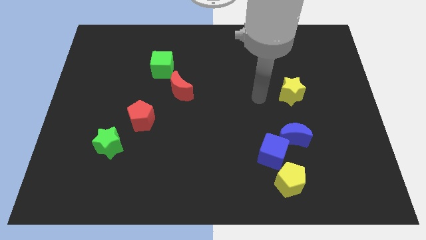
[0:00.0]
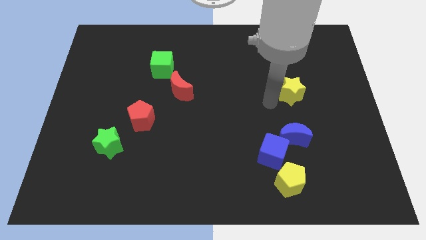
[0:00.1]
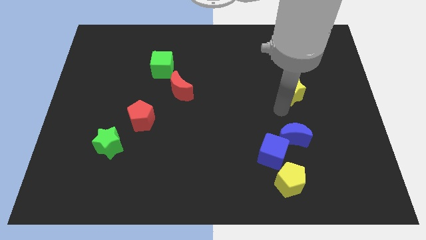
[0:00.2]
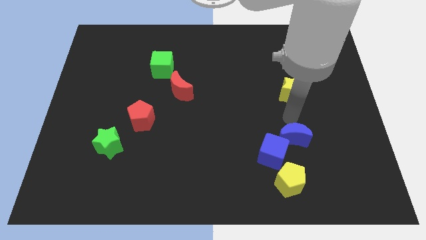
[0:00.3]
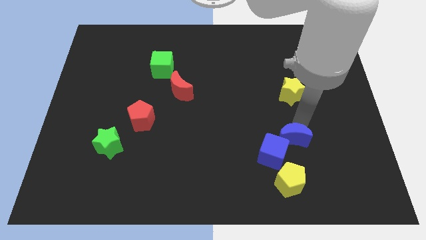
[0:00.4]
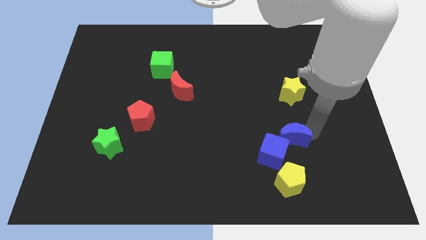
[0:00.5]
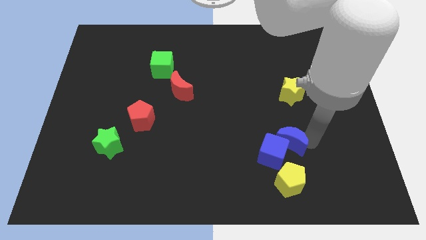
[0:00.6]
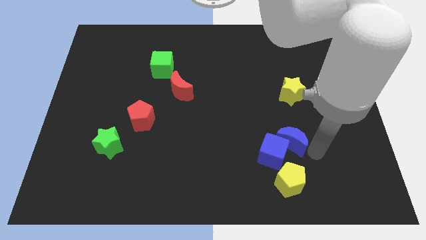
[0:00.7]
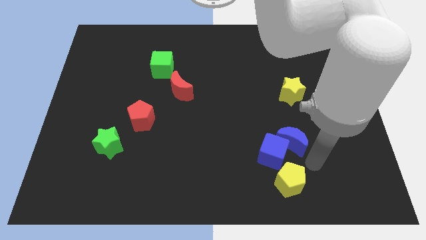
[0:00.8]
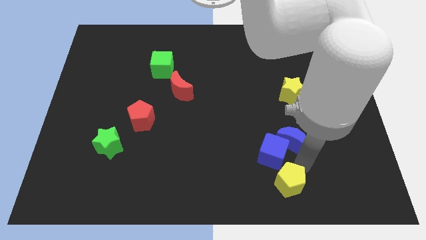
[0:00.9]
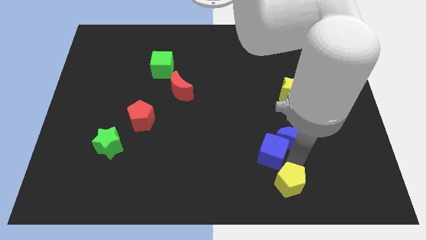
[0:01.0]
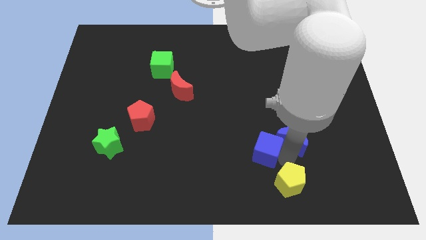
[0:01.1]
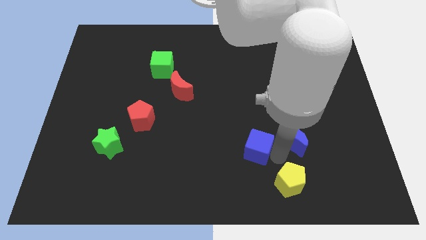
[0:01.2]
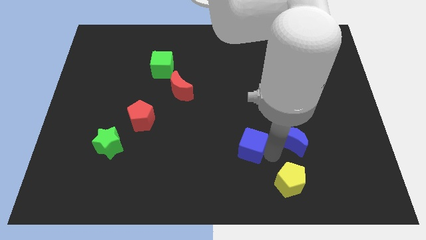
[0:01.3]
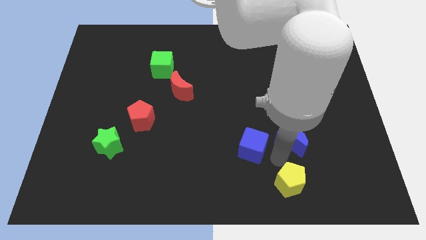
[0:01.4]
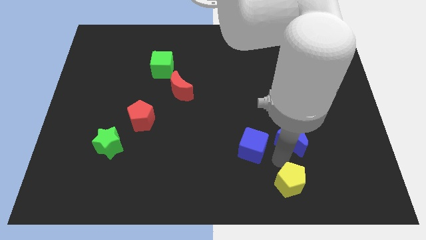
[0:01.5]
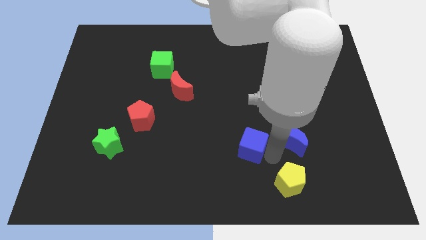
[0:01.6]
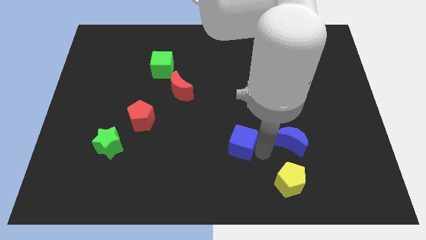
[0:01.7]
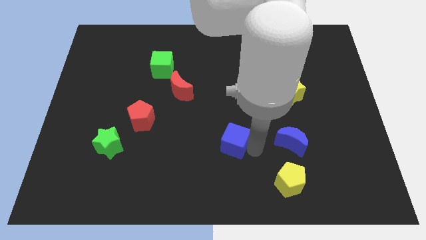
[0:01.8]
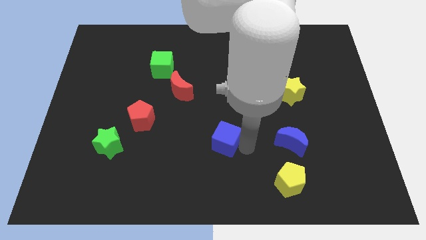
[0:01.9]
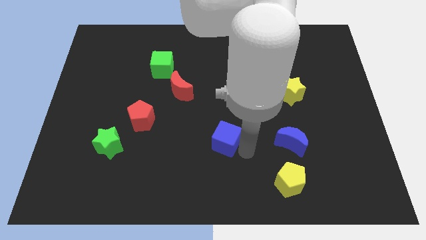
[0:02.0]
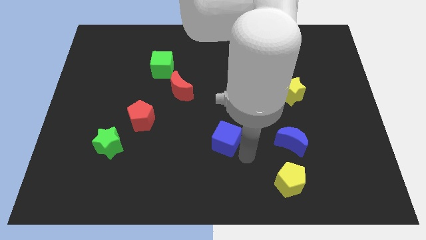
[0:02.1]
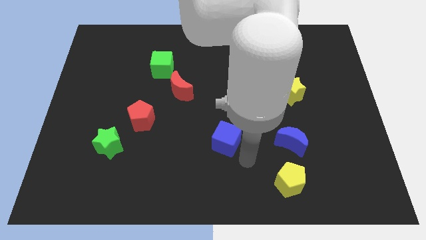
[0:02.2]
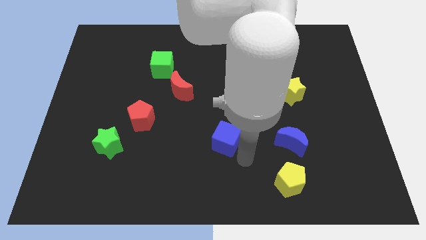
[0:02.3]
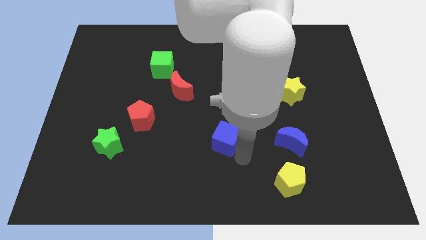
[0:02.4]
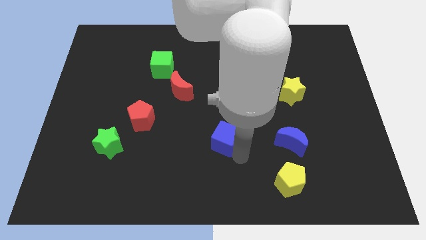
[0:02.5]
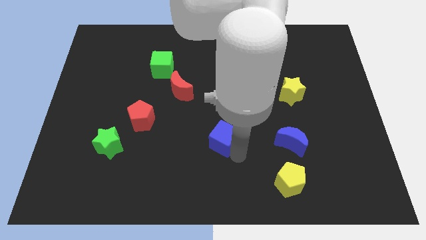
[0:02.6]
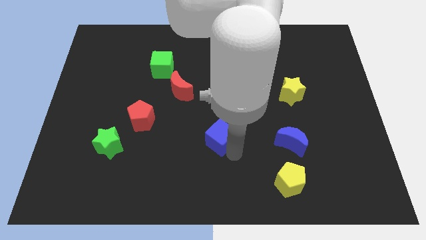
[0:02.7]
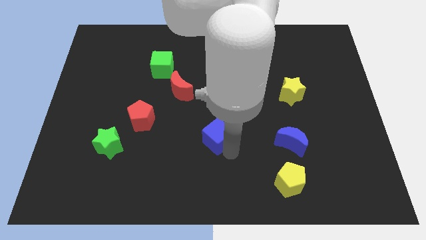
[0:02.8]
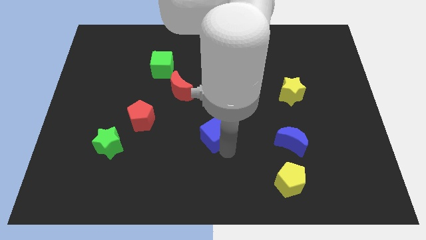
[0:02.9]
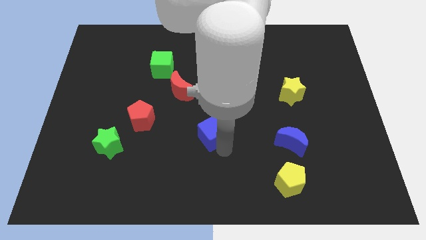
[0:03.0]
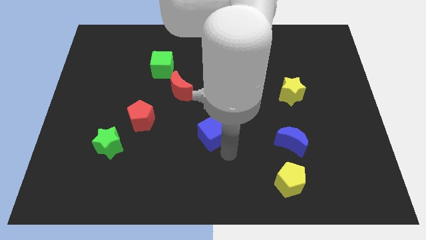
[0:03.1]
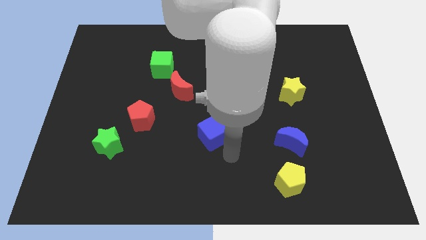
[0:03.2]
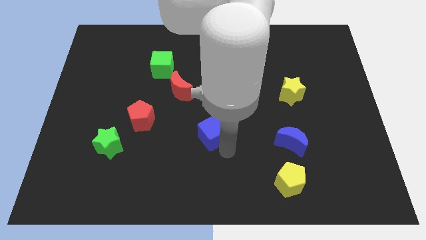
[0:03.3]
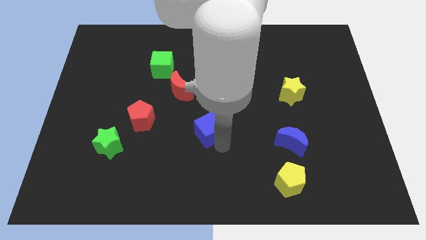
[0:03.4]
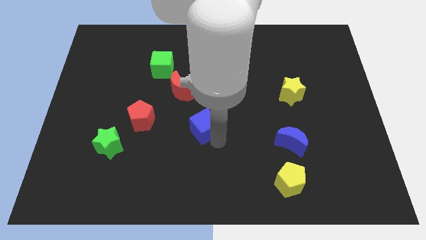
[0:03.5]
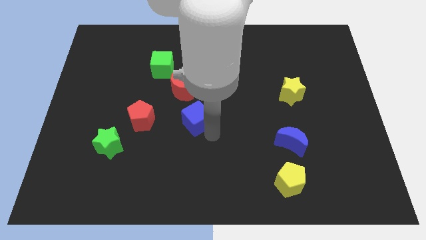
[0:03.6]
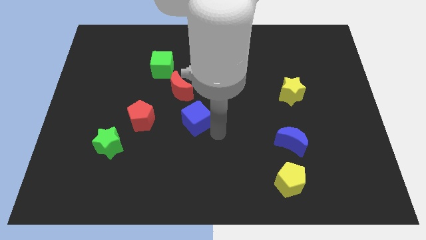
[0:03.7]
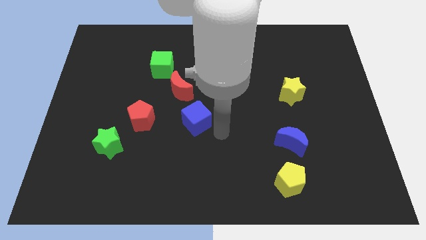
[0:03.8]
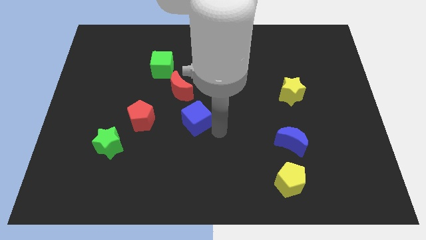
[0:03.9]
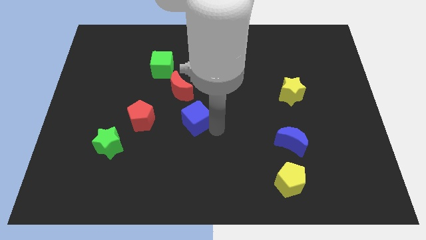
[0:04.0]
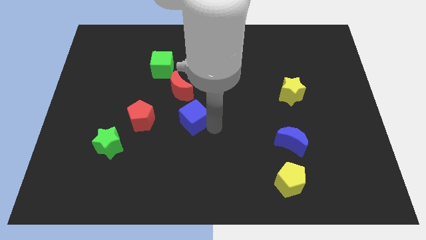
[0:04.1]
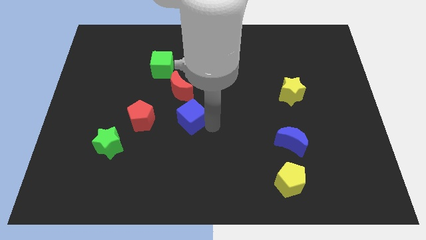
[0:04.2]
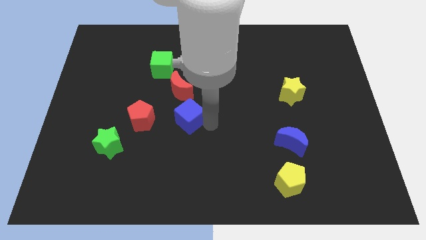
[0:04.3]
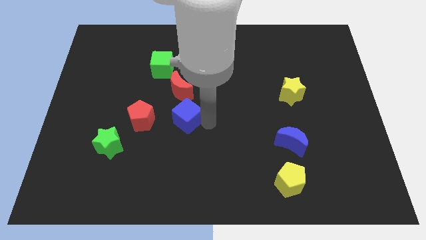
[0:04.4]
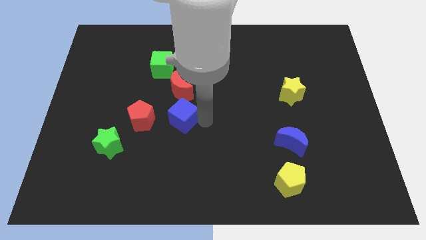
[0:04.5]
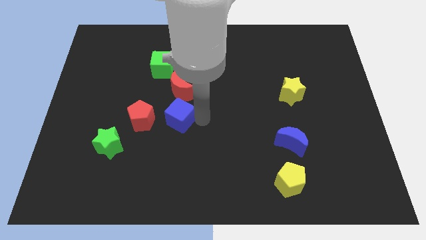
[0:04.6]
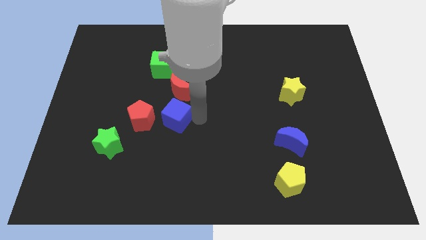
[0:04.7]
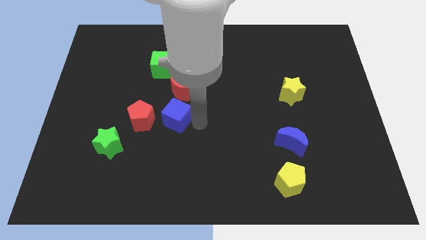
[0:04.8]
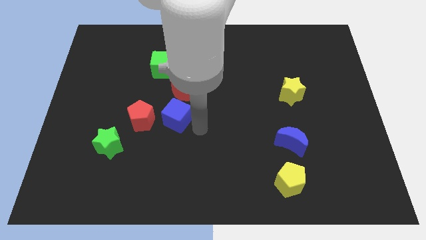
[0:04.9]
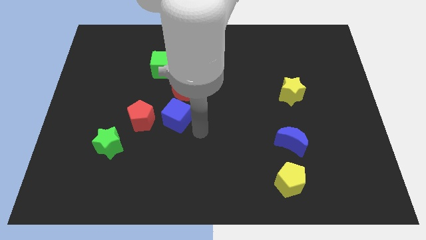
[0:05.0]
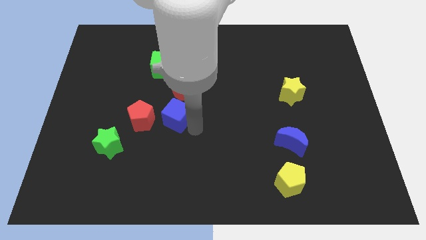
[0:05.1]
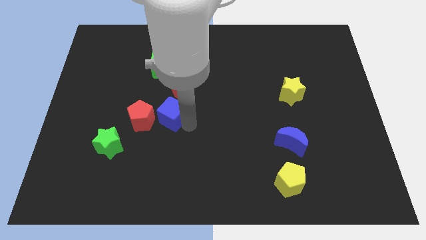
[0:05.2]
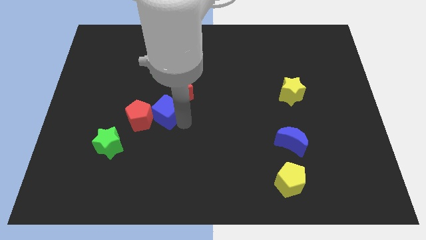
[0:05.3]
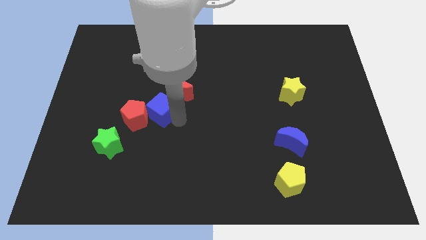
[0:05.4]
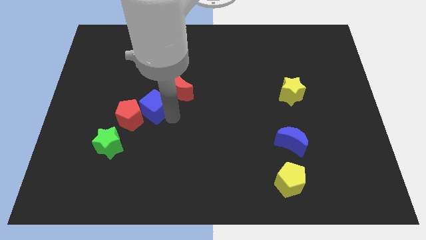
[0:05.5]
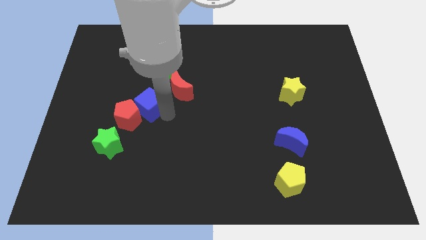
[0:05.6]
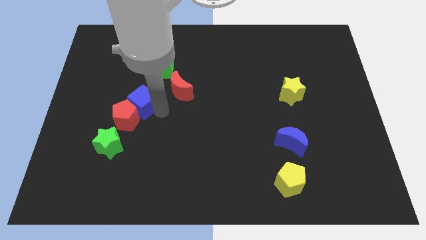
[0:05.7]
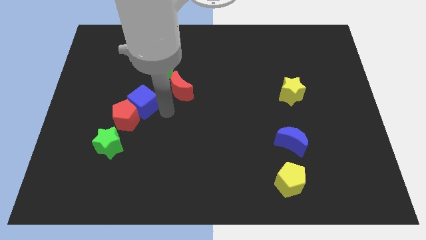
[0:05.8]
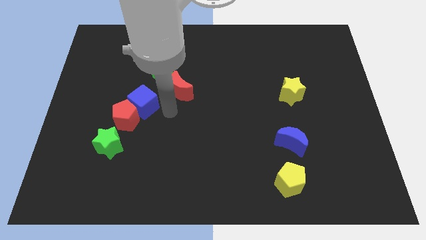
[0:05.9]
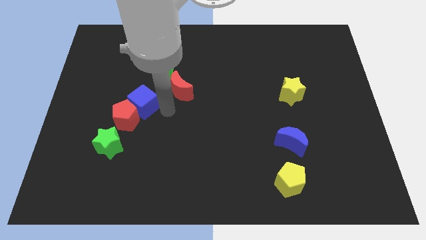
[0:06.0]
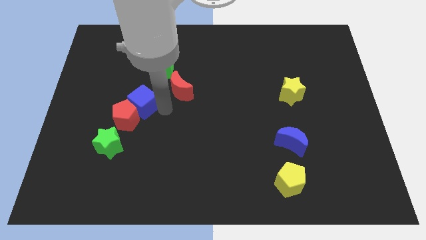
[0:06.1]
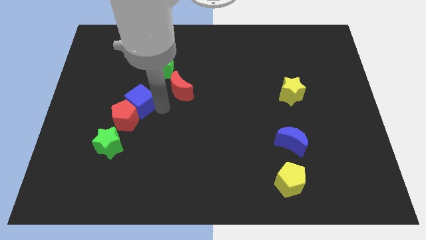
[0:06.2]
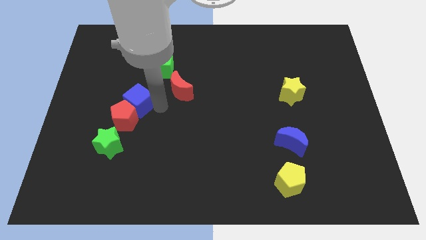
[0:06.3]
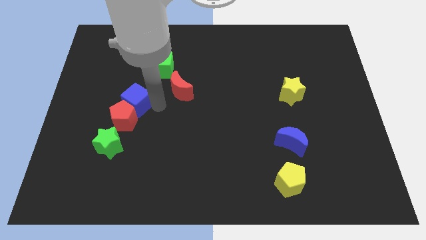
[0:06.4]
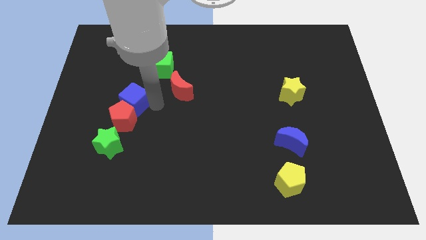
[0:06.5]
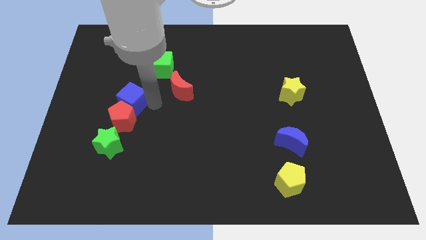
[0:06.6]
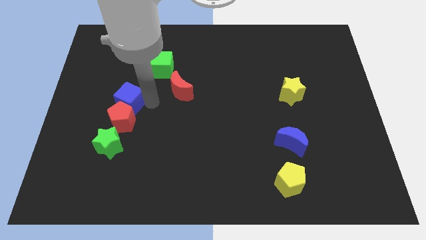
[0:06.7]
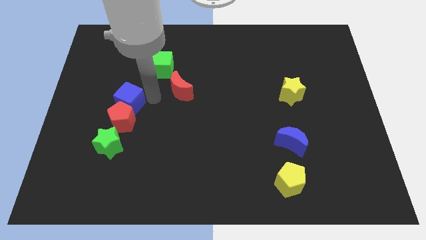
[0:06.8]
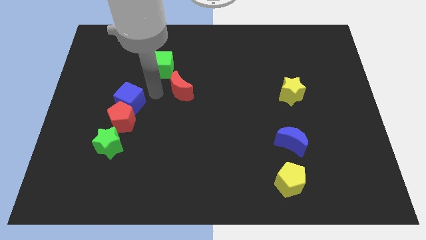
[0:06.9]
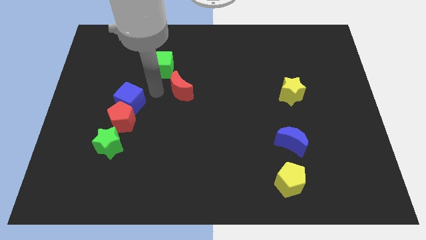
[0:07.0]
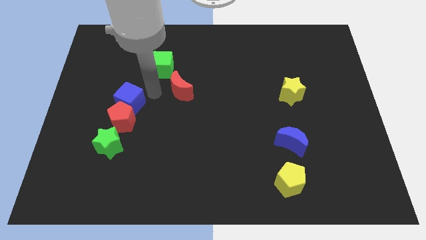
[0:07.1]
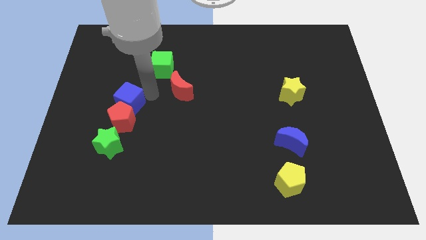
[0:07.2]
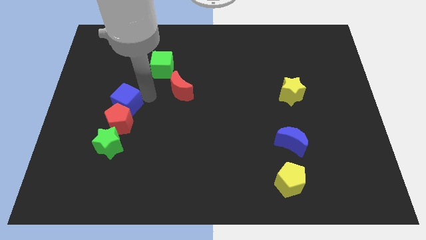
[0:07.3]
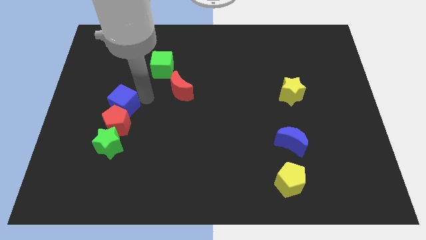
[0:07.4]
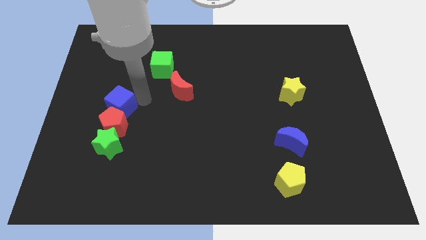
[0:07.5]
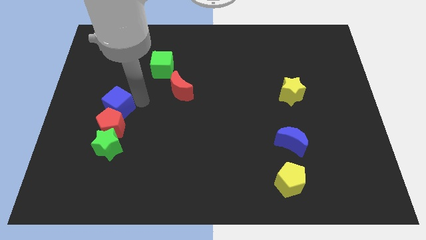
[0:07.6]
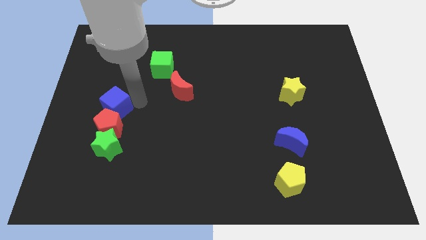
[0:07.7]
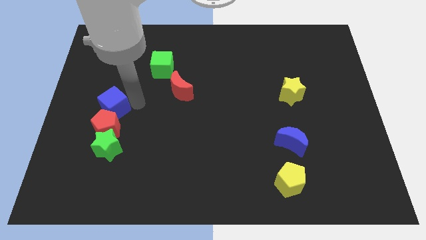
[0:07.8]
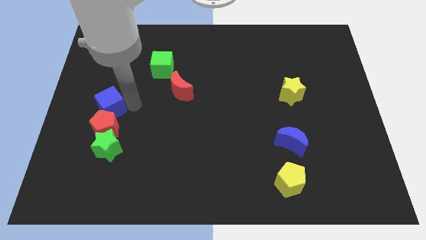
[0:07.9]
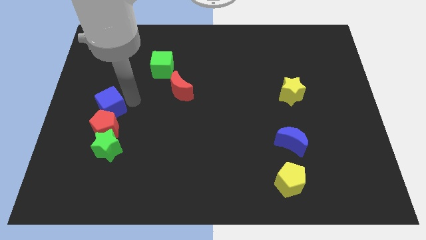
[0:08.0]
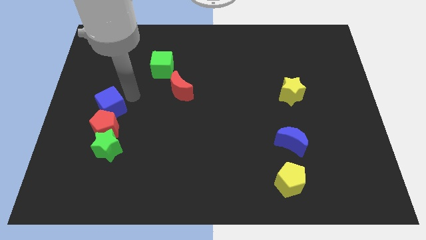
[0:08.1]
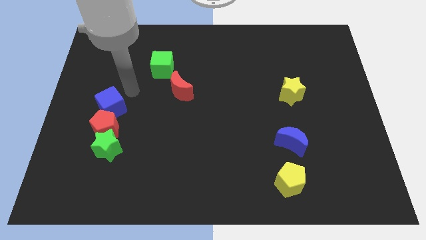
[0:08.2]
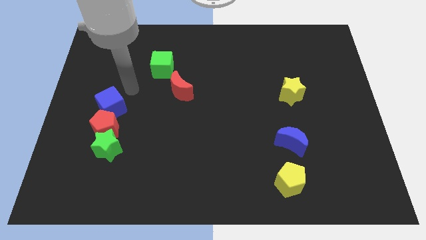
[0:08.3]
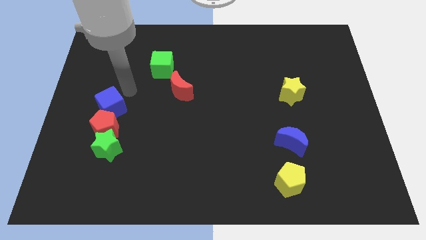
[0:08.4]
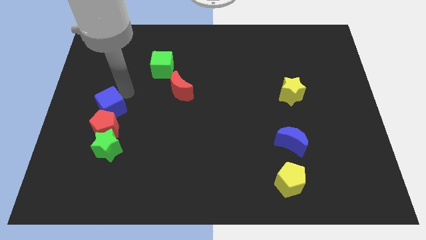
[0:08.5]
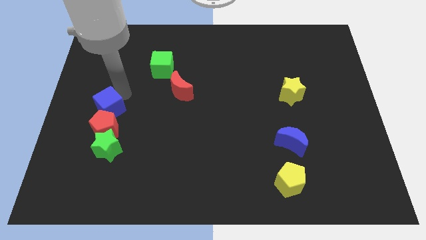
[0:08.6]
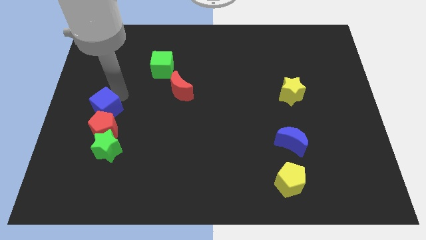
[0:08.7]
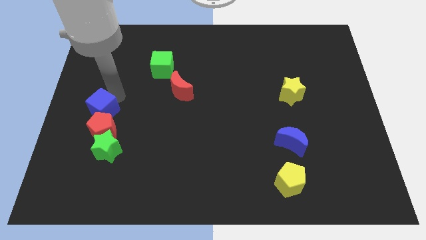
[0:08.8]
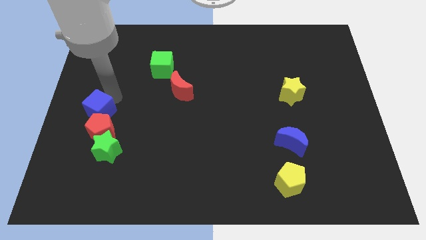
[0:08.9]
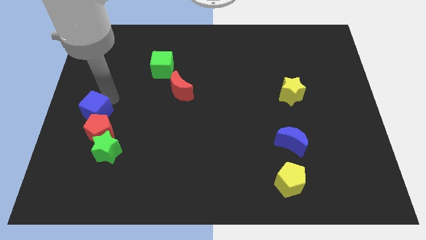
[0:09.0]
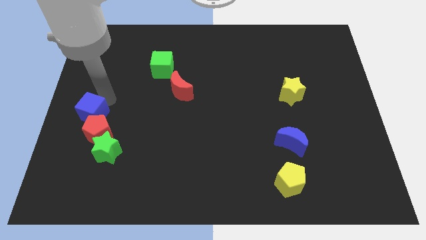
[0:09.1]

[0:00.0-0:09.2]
move the blue cube to the top left of the green star
